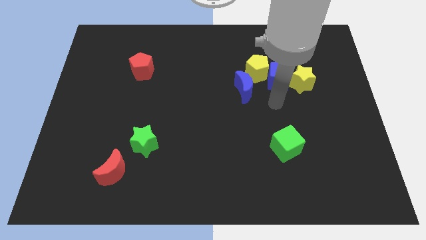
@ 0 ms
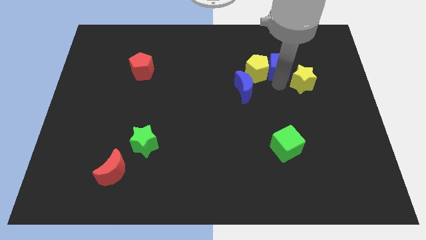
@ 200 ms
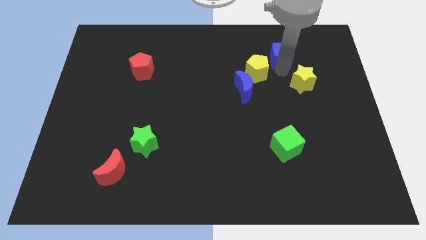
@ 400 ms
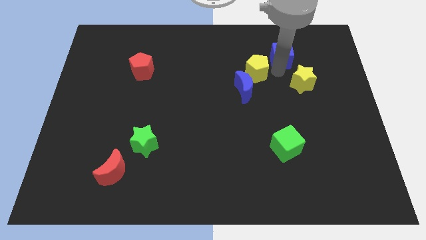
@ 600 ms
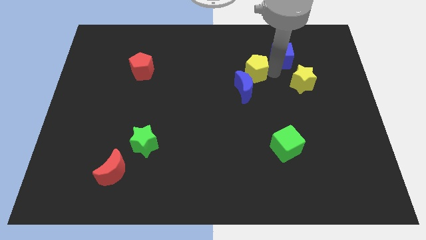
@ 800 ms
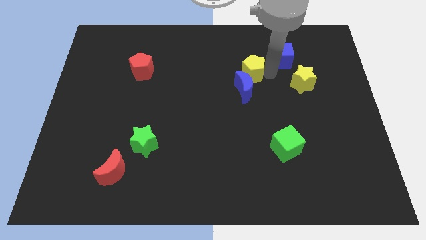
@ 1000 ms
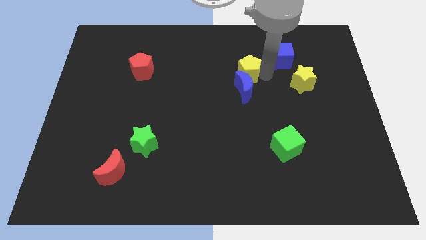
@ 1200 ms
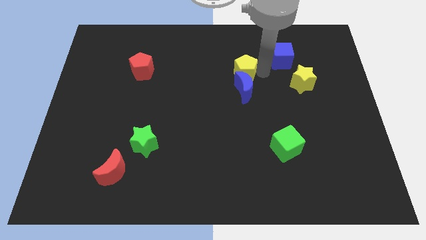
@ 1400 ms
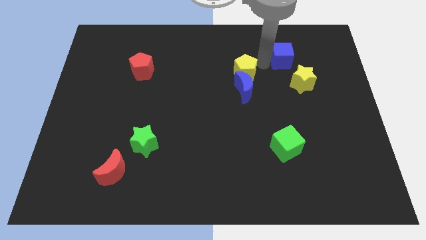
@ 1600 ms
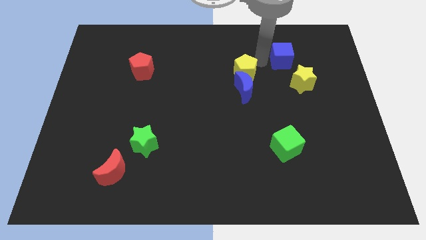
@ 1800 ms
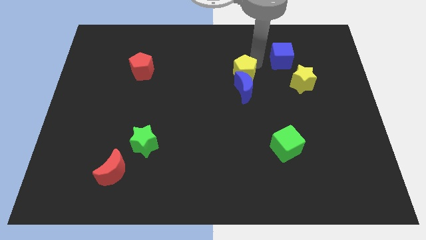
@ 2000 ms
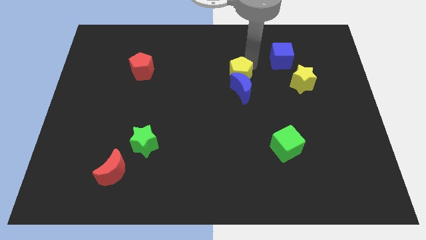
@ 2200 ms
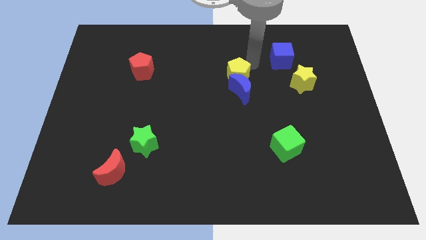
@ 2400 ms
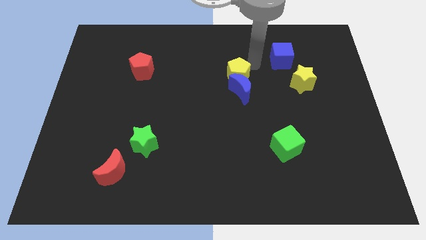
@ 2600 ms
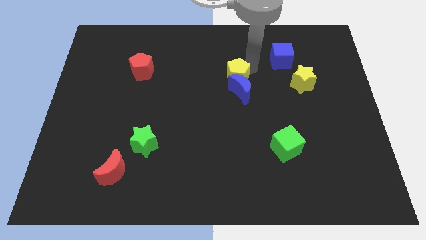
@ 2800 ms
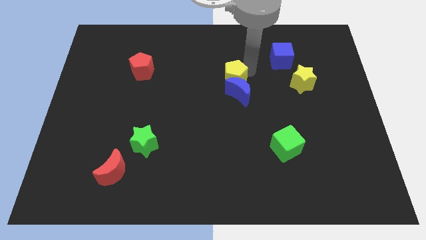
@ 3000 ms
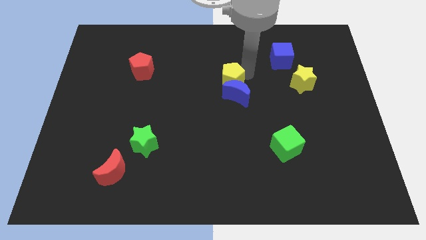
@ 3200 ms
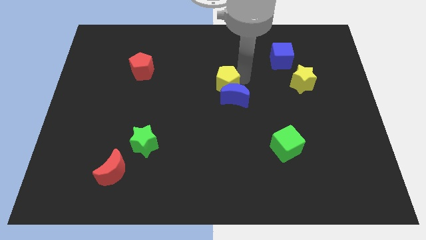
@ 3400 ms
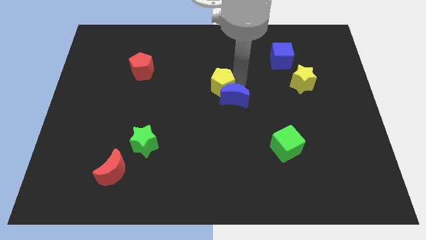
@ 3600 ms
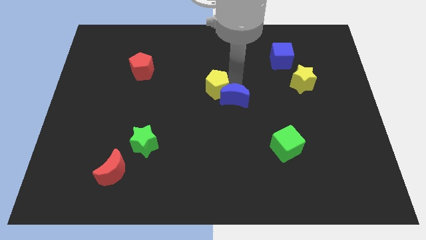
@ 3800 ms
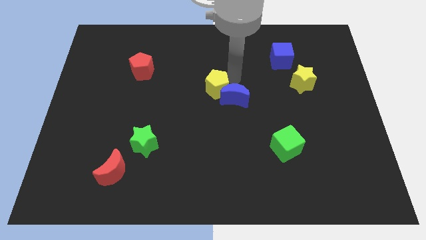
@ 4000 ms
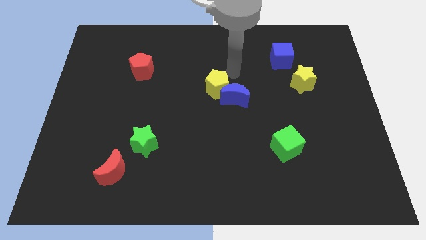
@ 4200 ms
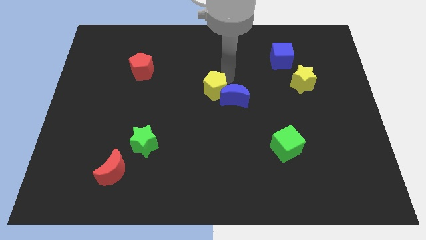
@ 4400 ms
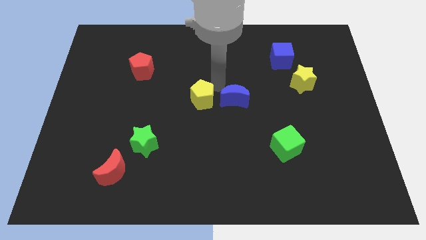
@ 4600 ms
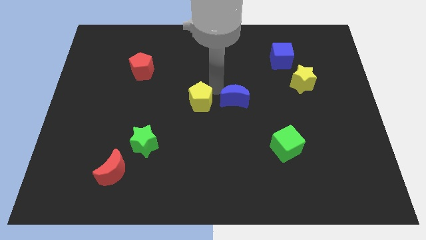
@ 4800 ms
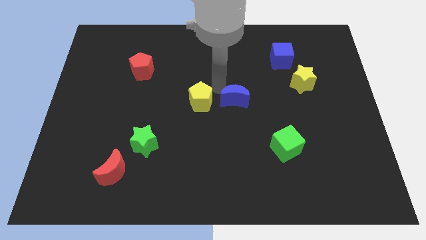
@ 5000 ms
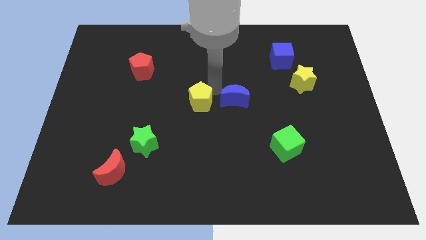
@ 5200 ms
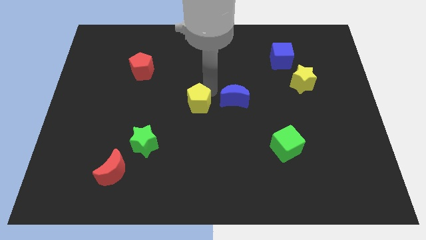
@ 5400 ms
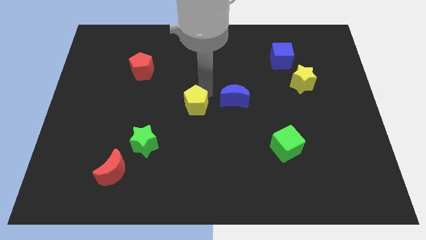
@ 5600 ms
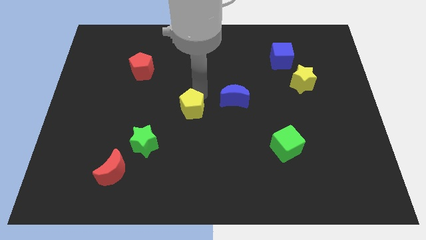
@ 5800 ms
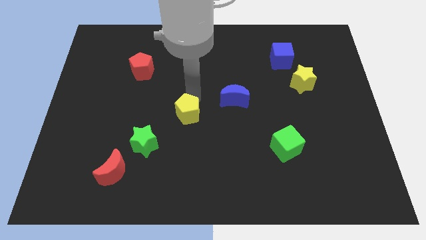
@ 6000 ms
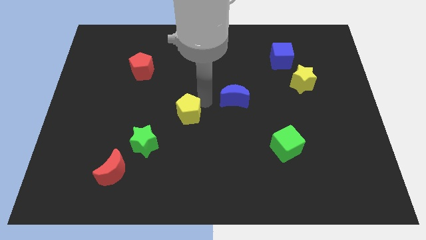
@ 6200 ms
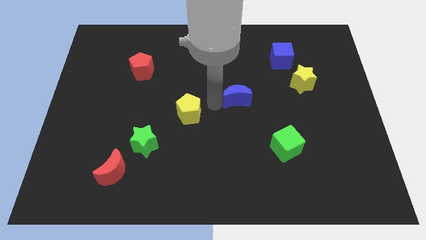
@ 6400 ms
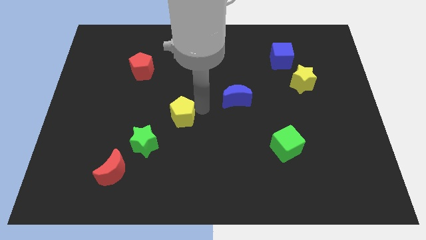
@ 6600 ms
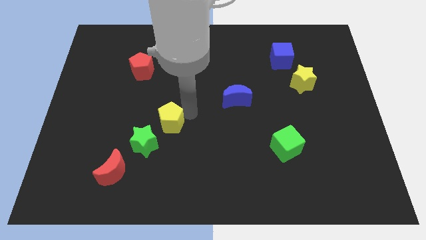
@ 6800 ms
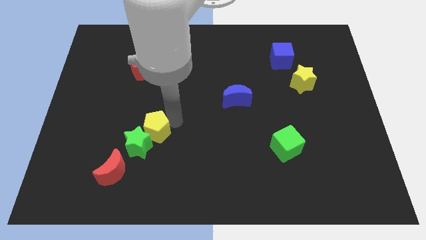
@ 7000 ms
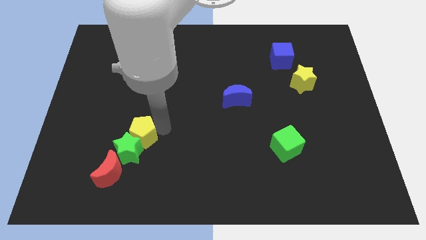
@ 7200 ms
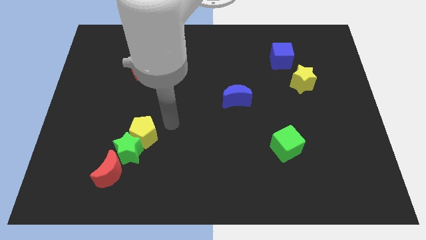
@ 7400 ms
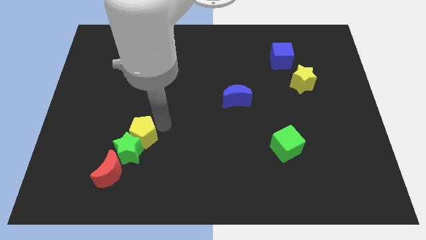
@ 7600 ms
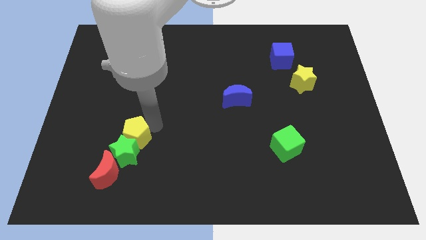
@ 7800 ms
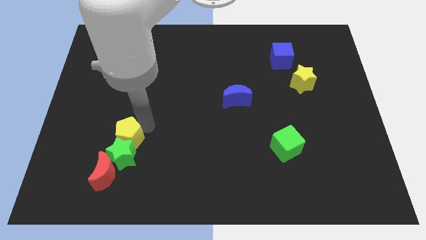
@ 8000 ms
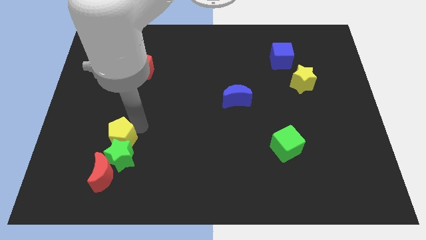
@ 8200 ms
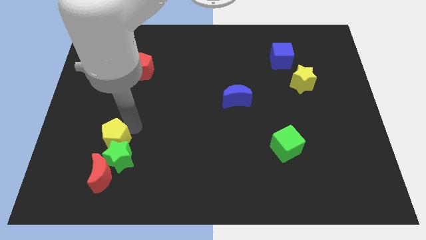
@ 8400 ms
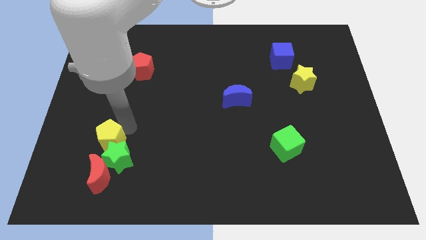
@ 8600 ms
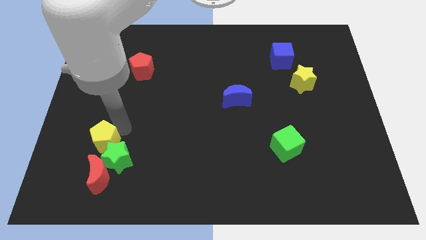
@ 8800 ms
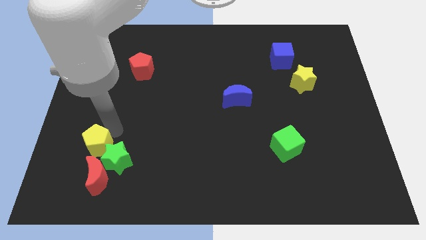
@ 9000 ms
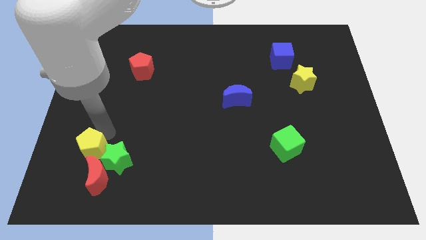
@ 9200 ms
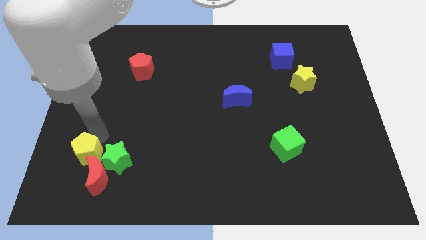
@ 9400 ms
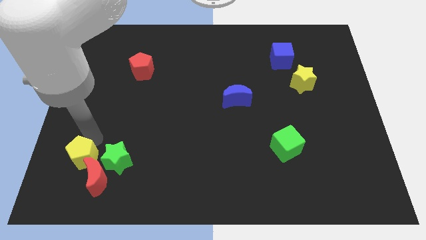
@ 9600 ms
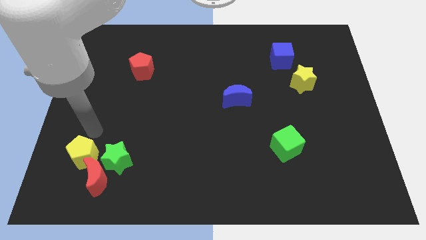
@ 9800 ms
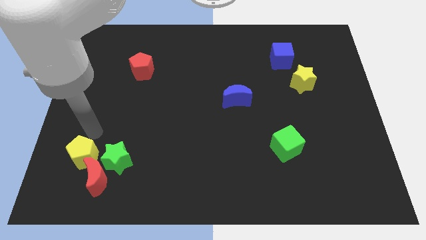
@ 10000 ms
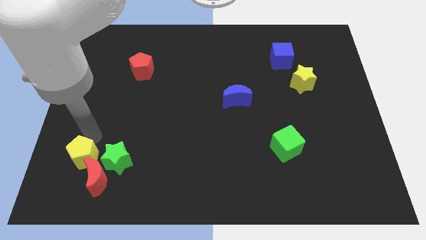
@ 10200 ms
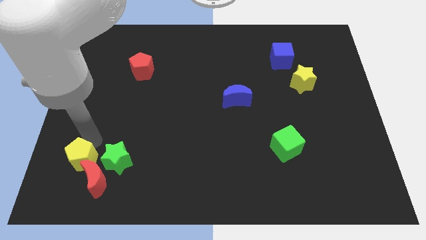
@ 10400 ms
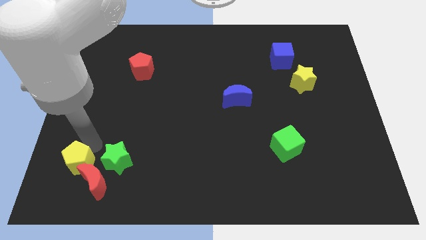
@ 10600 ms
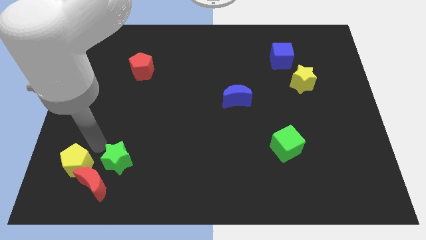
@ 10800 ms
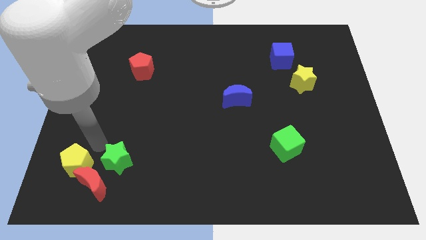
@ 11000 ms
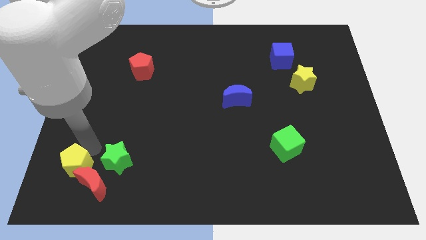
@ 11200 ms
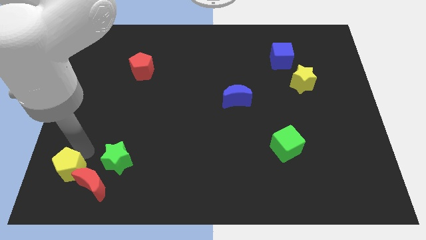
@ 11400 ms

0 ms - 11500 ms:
put the yellow pentagon to the bottom left corner

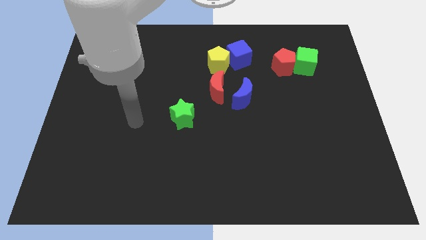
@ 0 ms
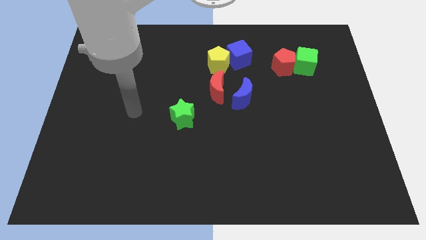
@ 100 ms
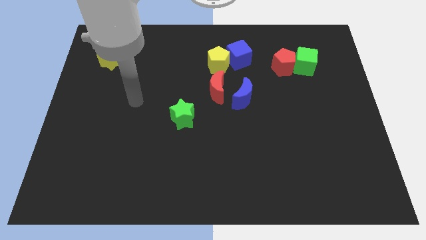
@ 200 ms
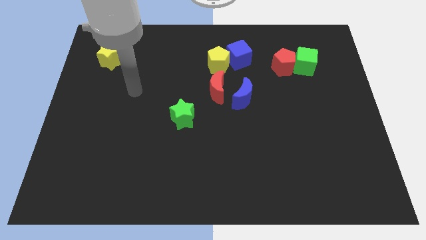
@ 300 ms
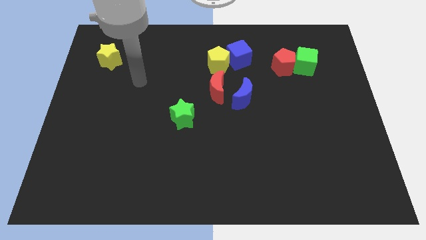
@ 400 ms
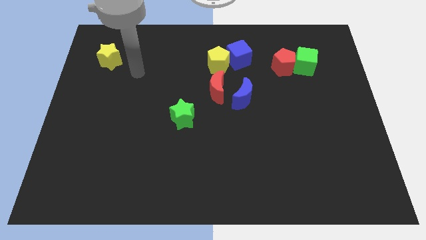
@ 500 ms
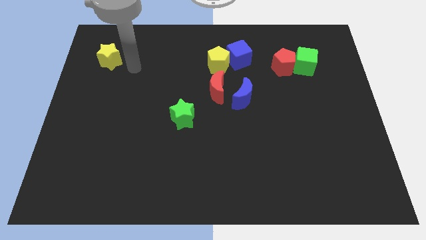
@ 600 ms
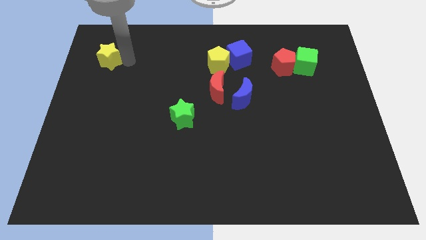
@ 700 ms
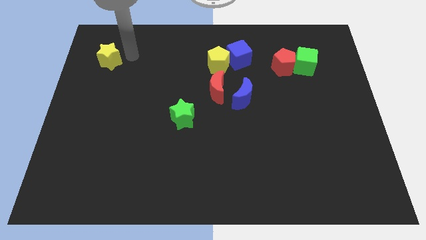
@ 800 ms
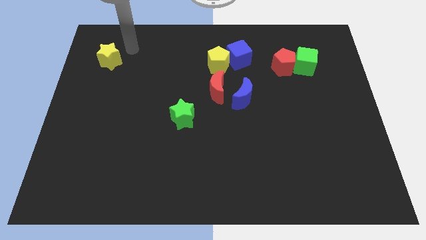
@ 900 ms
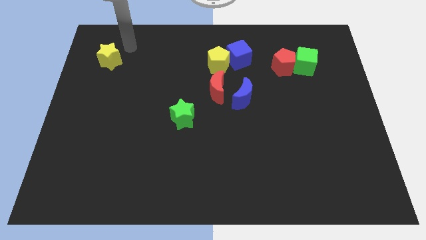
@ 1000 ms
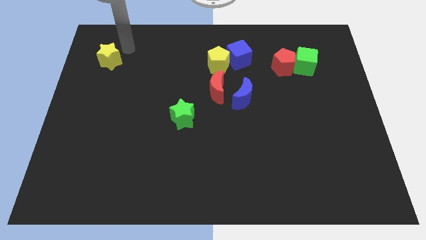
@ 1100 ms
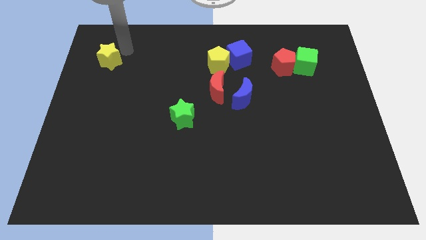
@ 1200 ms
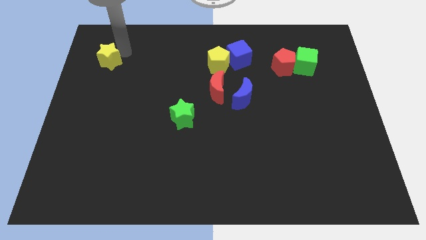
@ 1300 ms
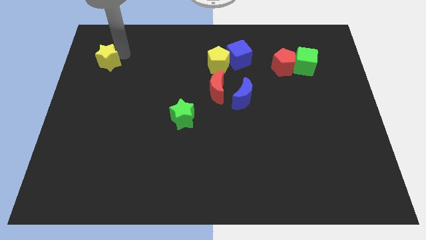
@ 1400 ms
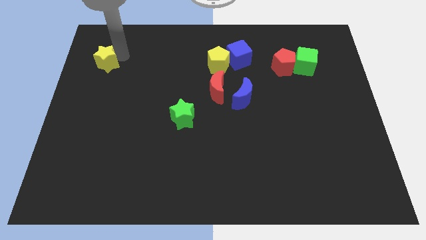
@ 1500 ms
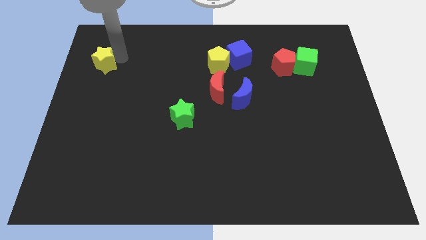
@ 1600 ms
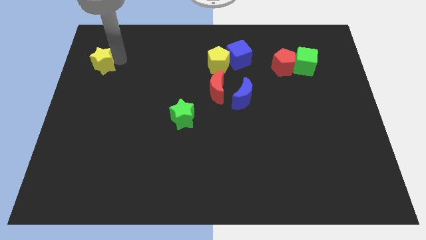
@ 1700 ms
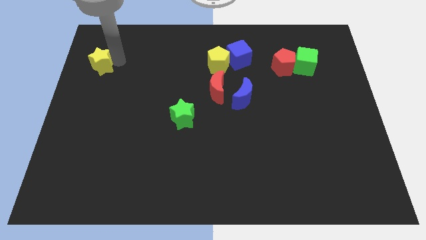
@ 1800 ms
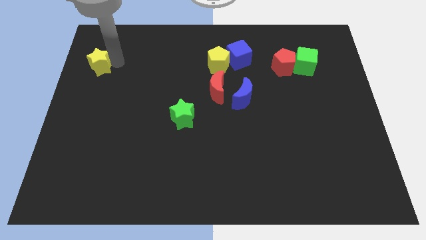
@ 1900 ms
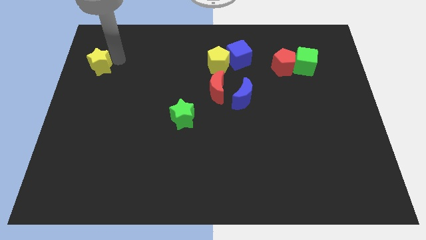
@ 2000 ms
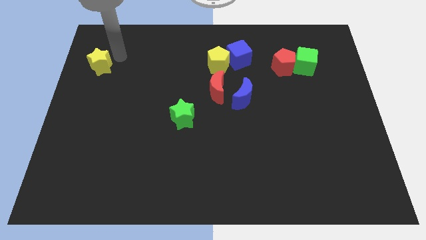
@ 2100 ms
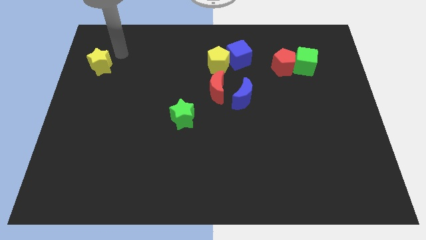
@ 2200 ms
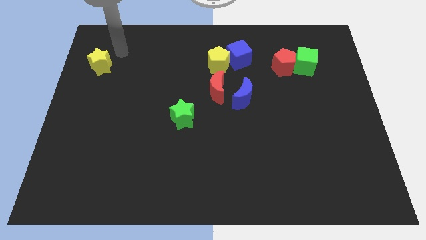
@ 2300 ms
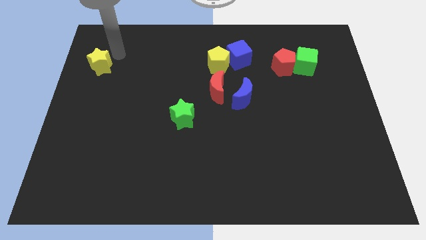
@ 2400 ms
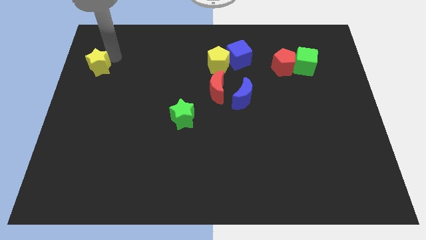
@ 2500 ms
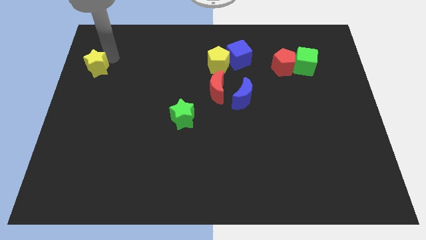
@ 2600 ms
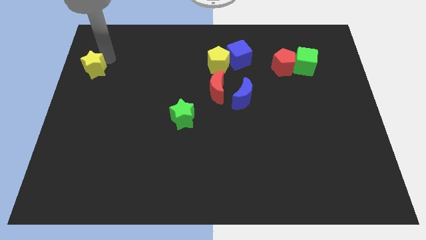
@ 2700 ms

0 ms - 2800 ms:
move the yellow star to the left side
